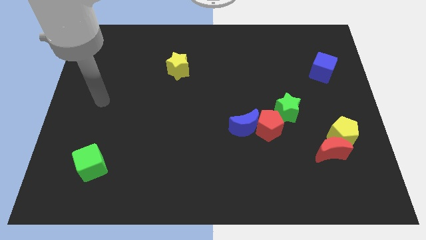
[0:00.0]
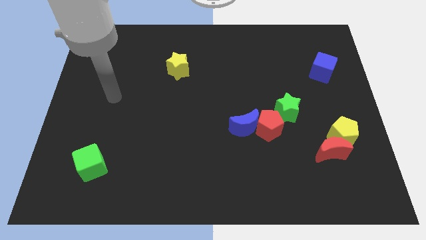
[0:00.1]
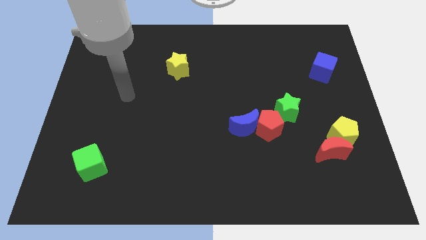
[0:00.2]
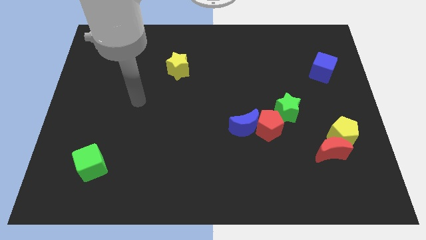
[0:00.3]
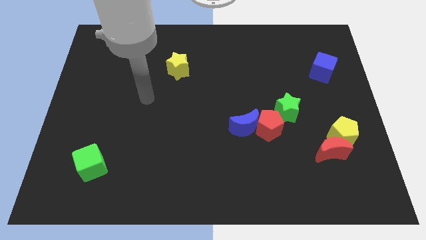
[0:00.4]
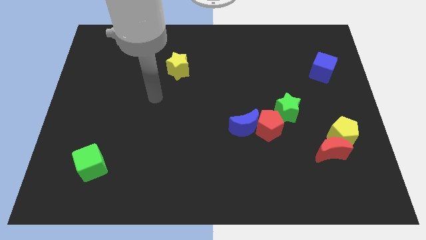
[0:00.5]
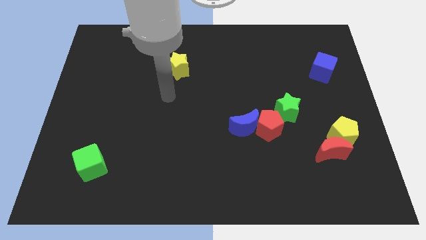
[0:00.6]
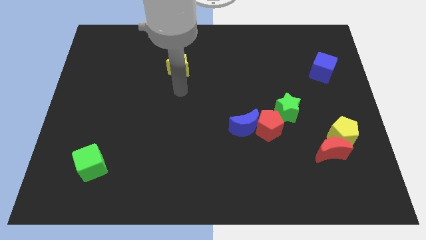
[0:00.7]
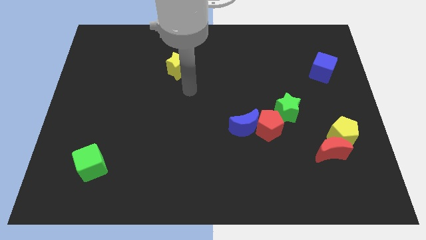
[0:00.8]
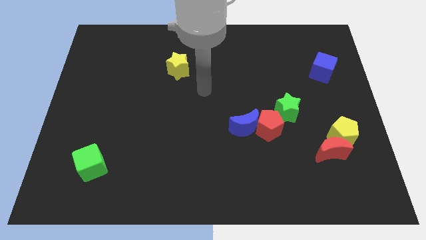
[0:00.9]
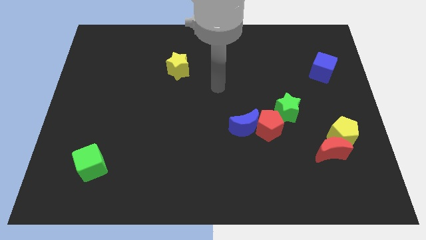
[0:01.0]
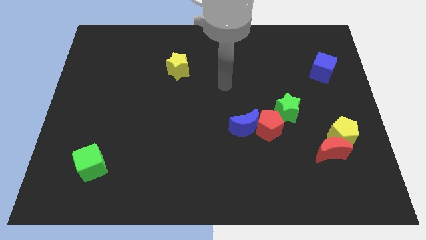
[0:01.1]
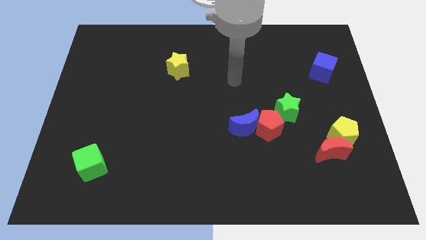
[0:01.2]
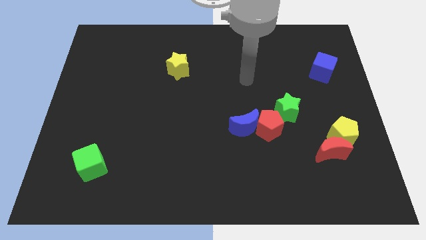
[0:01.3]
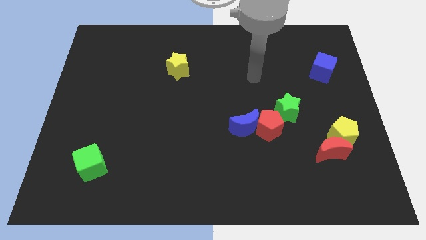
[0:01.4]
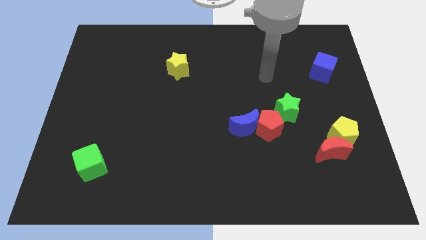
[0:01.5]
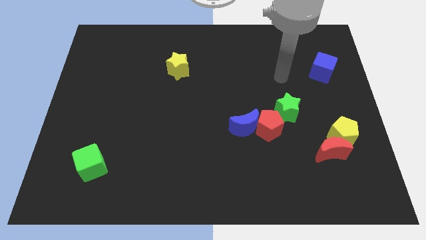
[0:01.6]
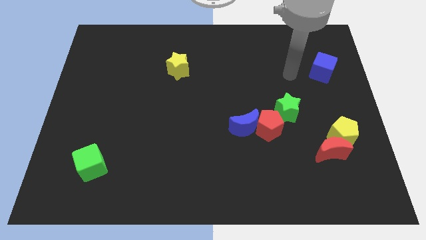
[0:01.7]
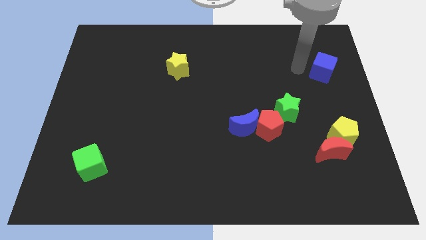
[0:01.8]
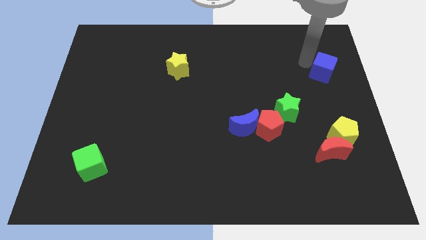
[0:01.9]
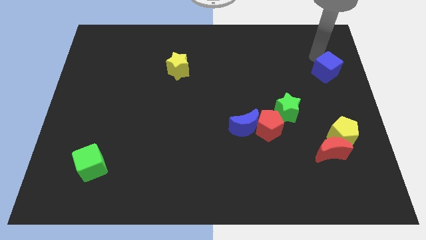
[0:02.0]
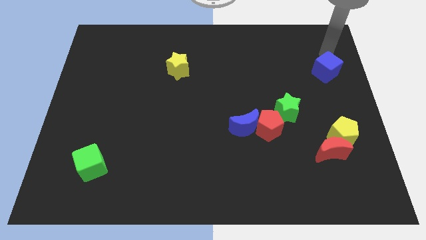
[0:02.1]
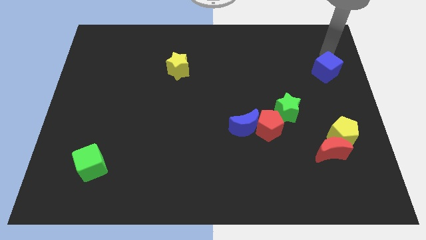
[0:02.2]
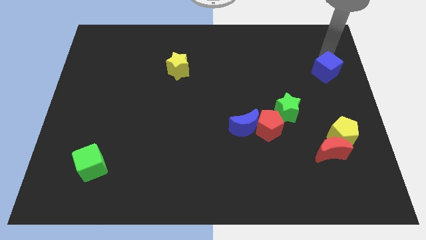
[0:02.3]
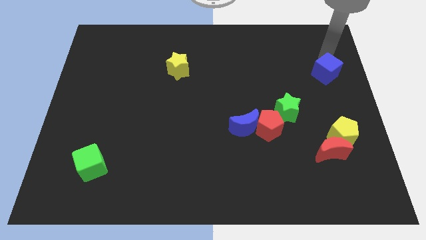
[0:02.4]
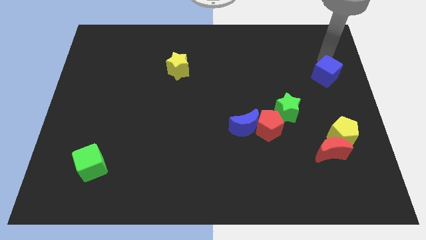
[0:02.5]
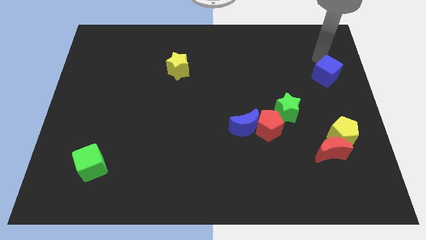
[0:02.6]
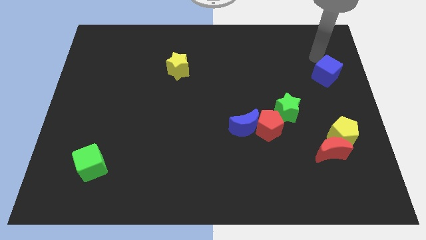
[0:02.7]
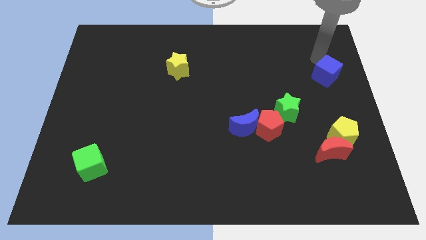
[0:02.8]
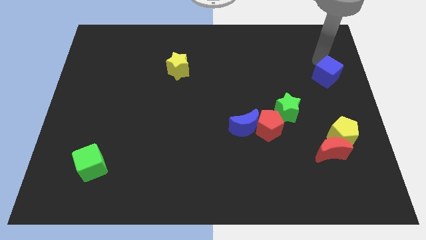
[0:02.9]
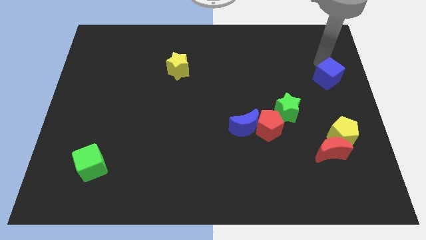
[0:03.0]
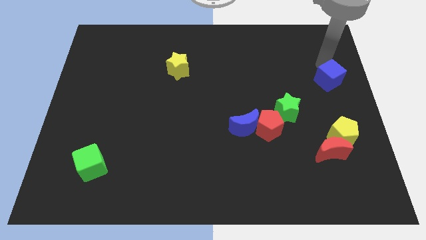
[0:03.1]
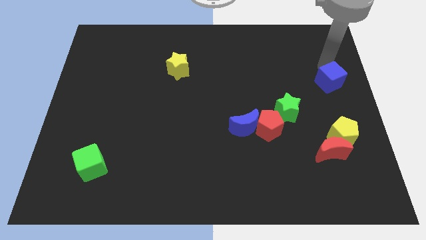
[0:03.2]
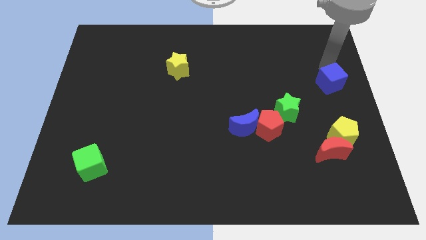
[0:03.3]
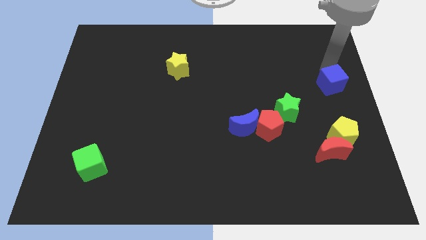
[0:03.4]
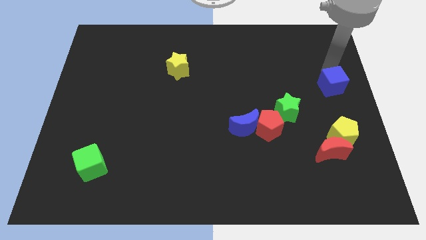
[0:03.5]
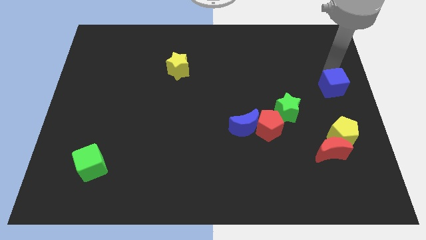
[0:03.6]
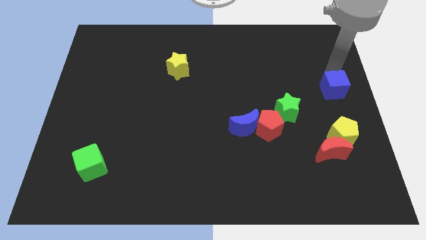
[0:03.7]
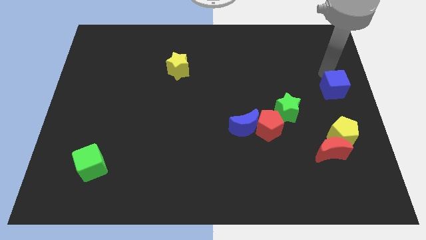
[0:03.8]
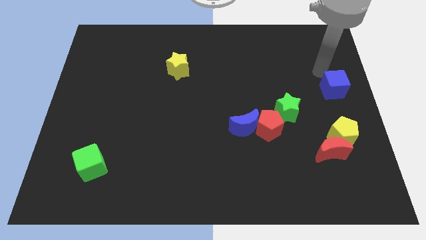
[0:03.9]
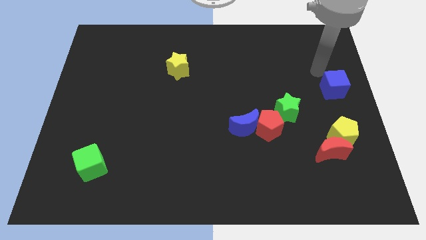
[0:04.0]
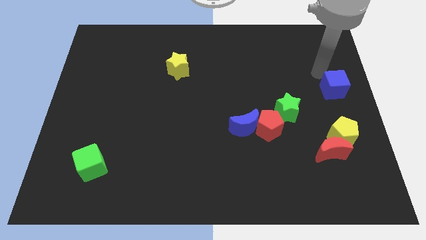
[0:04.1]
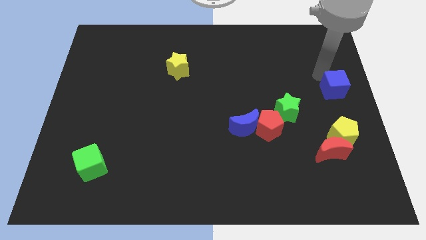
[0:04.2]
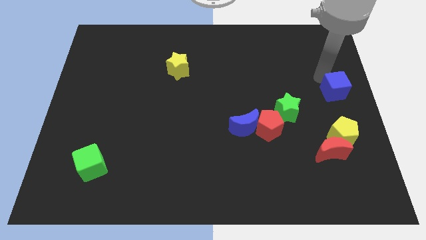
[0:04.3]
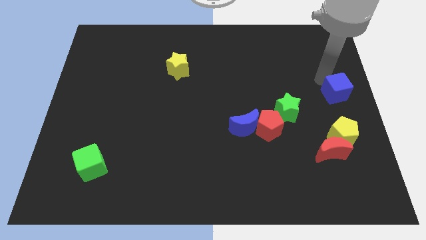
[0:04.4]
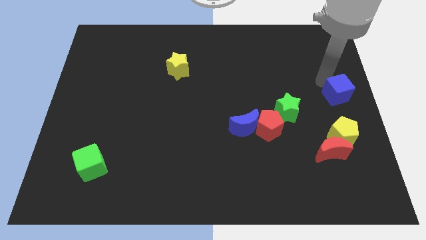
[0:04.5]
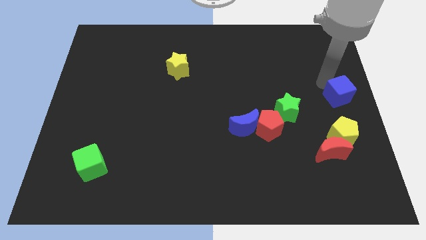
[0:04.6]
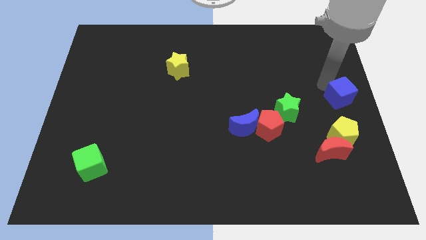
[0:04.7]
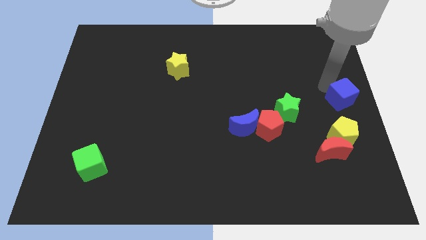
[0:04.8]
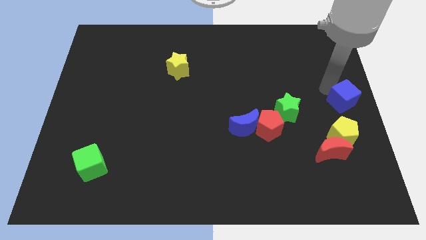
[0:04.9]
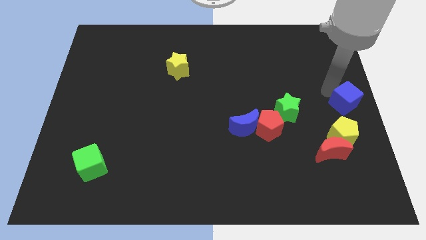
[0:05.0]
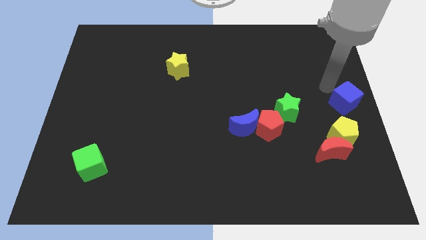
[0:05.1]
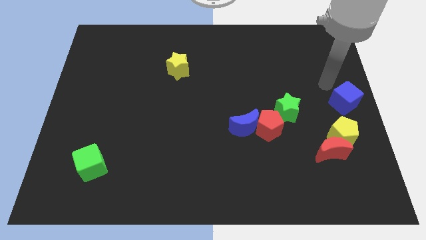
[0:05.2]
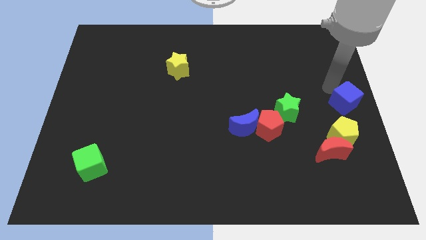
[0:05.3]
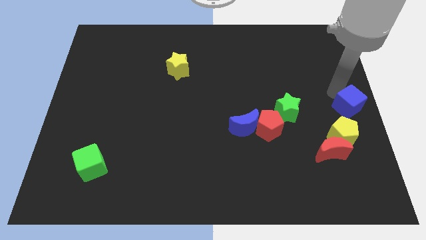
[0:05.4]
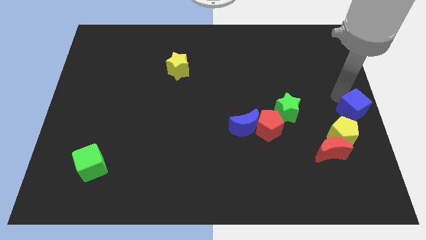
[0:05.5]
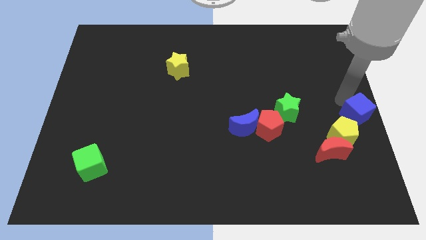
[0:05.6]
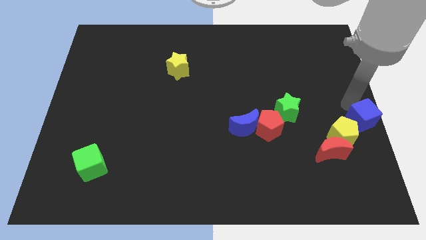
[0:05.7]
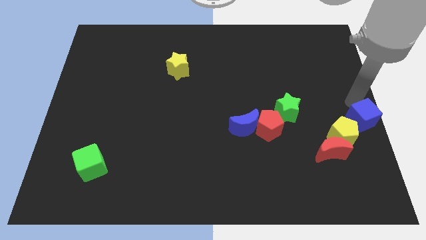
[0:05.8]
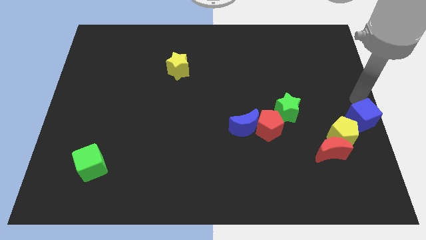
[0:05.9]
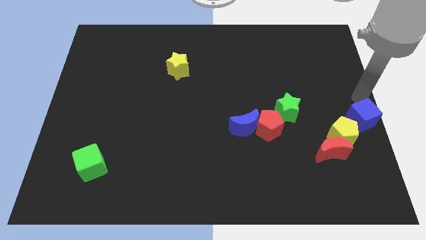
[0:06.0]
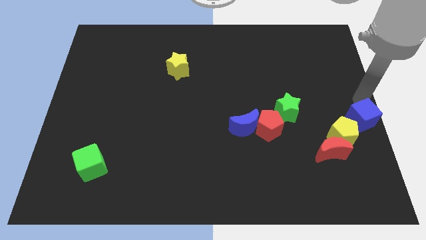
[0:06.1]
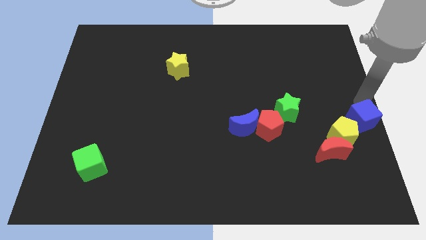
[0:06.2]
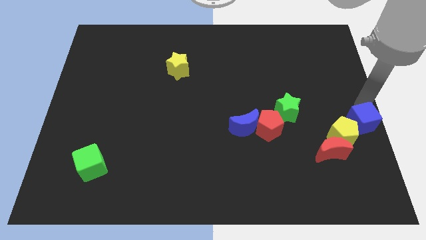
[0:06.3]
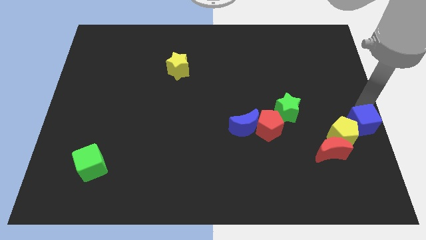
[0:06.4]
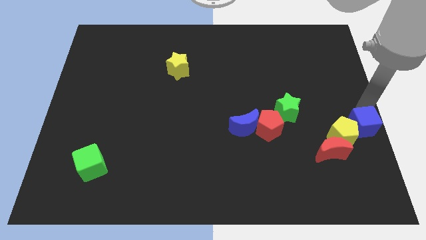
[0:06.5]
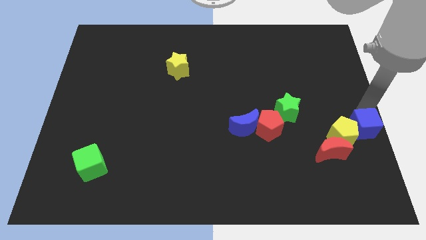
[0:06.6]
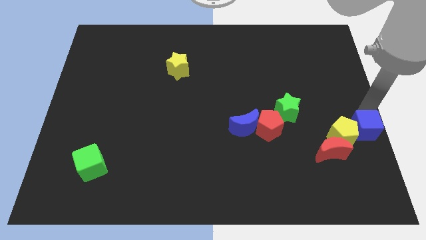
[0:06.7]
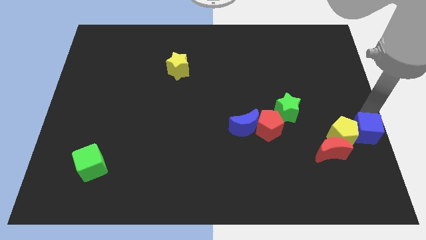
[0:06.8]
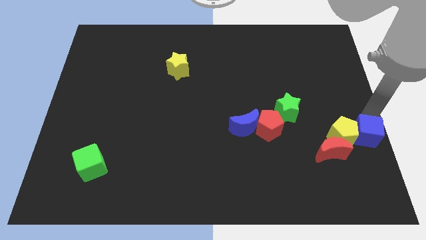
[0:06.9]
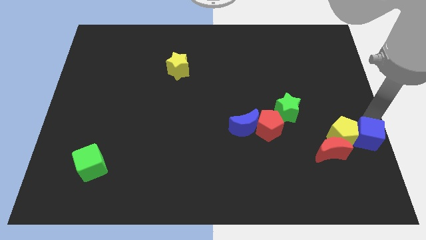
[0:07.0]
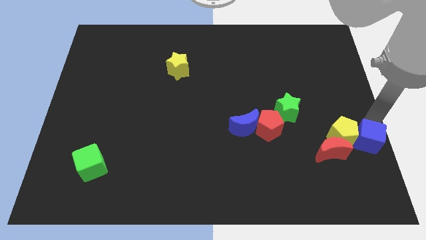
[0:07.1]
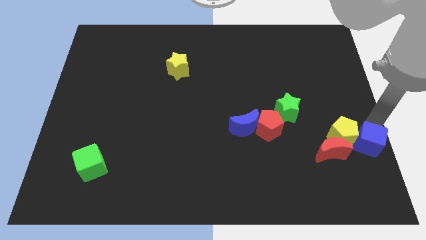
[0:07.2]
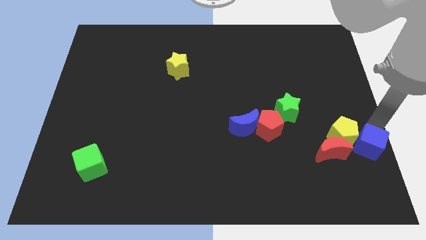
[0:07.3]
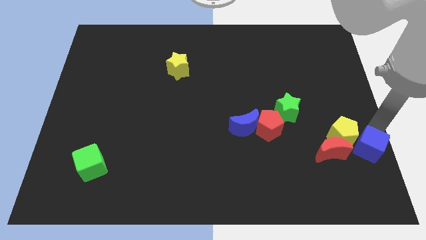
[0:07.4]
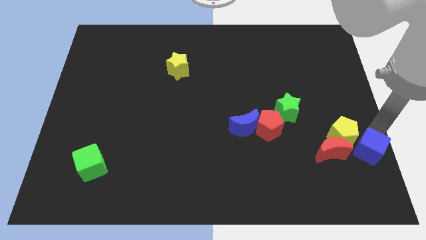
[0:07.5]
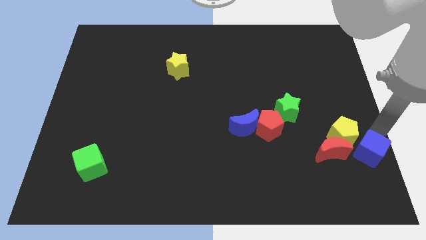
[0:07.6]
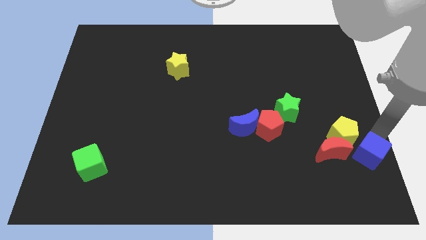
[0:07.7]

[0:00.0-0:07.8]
slide the blue cube below the yellow pentagon
